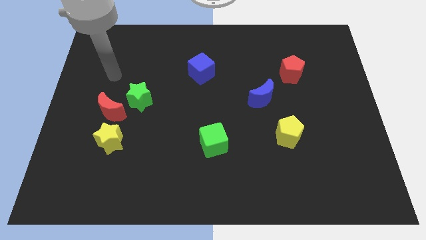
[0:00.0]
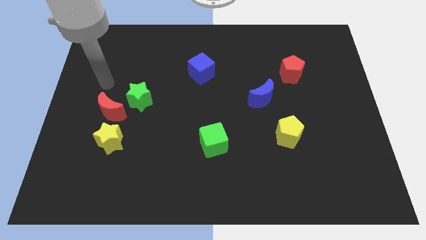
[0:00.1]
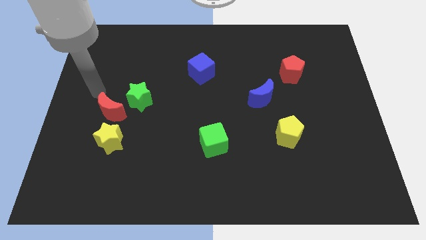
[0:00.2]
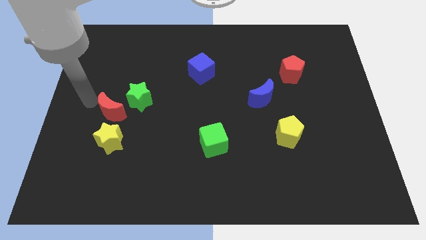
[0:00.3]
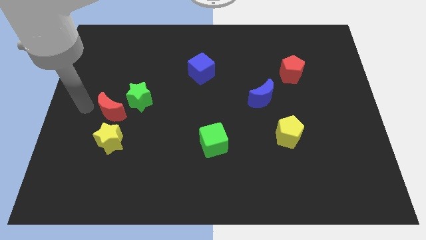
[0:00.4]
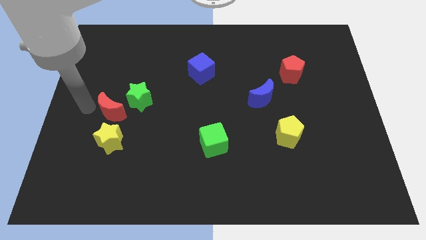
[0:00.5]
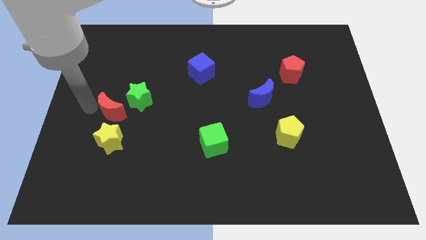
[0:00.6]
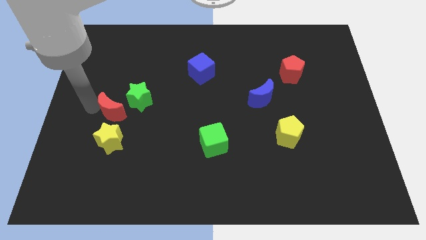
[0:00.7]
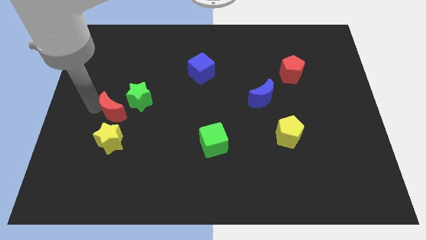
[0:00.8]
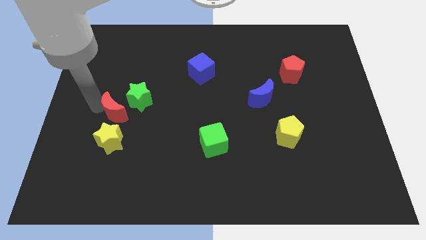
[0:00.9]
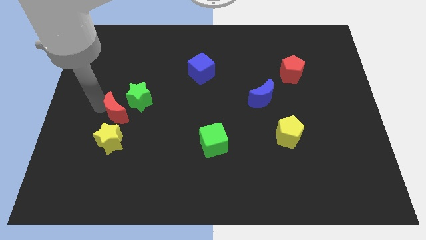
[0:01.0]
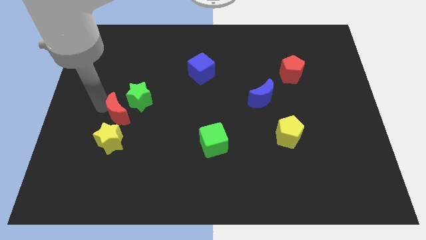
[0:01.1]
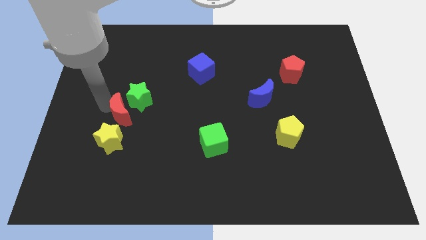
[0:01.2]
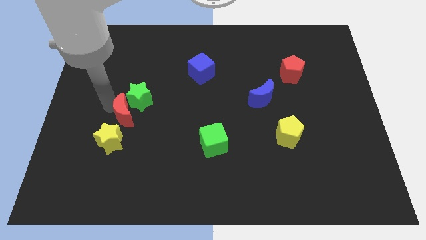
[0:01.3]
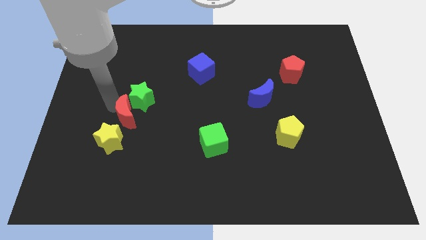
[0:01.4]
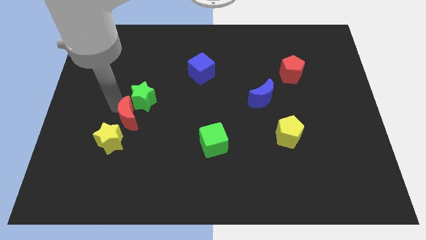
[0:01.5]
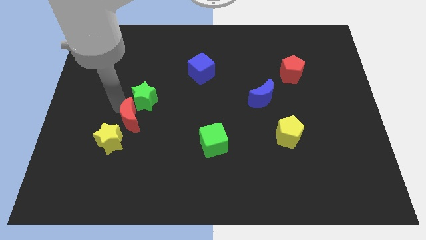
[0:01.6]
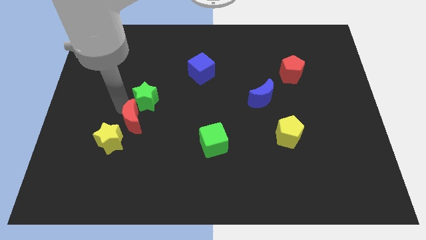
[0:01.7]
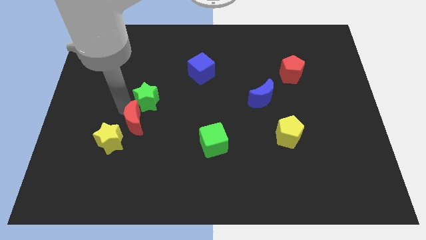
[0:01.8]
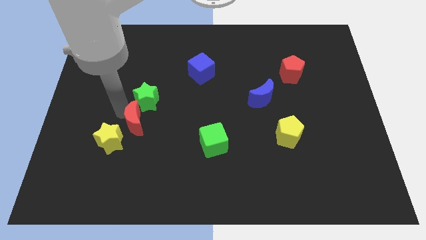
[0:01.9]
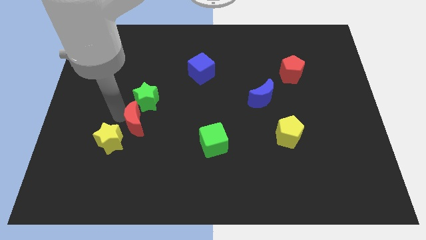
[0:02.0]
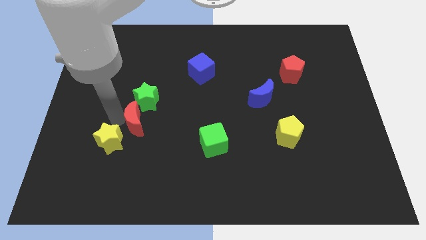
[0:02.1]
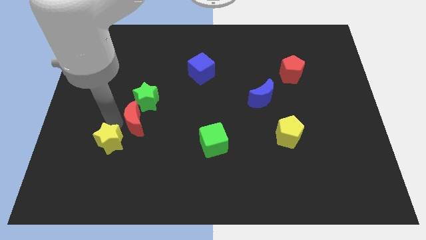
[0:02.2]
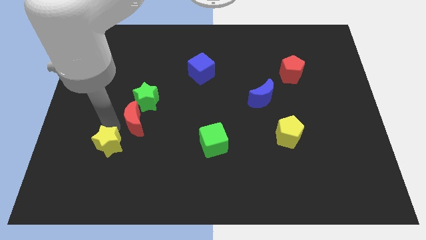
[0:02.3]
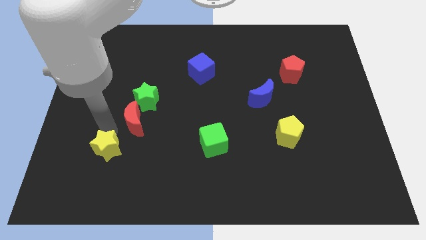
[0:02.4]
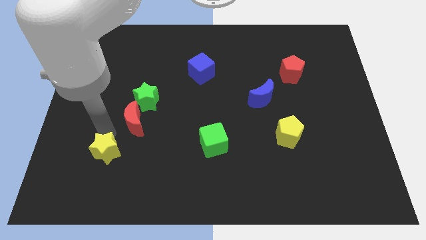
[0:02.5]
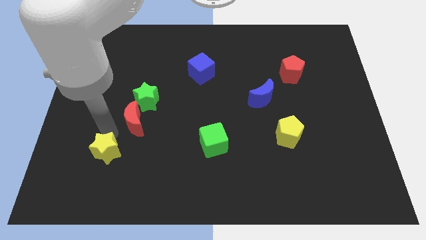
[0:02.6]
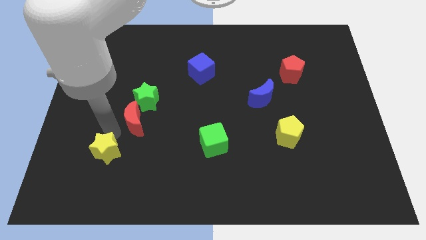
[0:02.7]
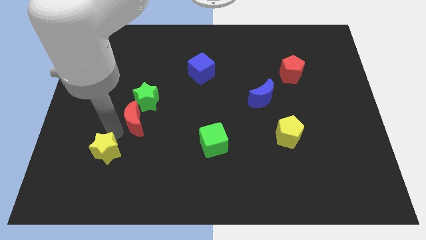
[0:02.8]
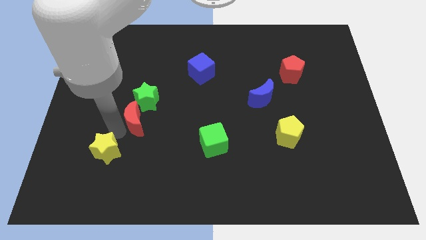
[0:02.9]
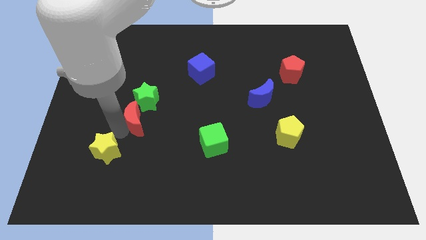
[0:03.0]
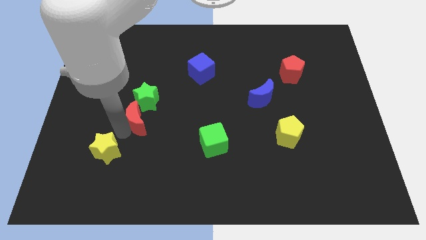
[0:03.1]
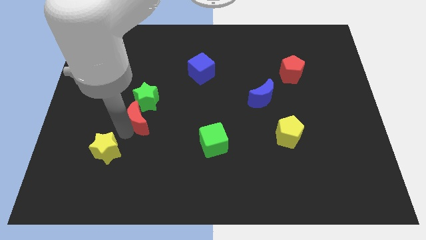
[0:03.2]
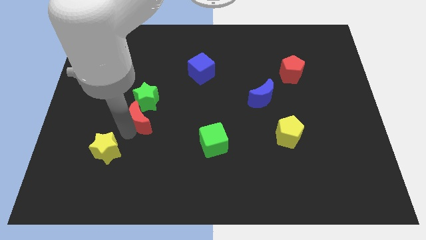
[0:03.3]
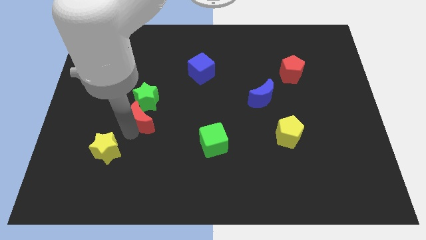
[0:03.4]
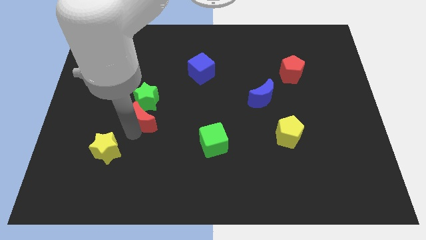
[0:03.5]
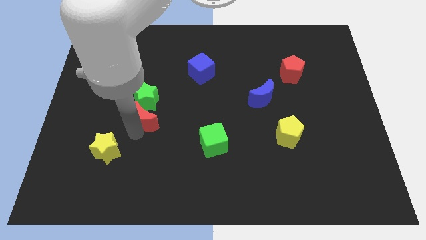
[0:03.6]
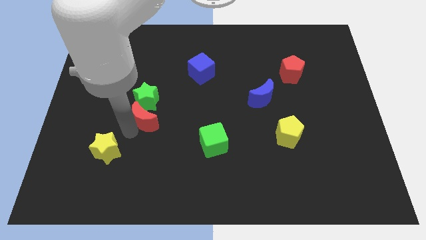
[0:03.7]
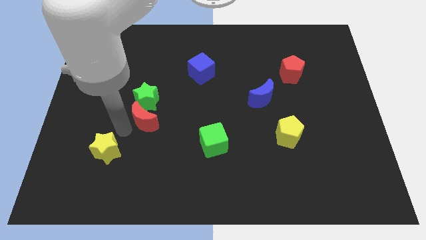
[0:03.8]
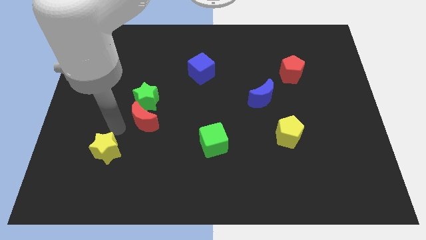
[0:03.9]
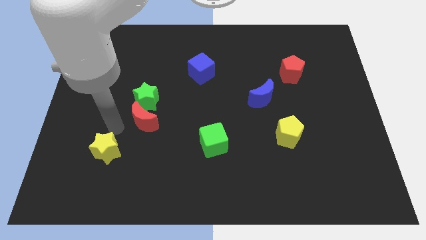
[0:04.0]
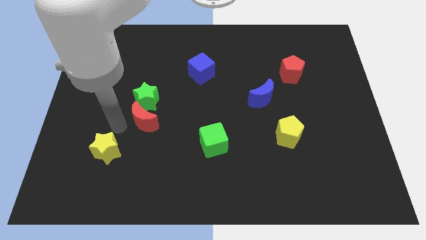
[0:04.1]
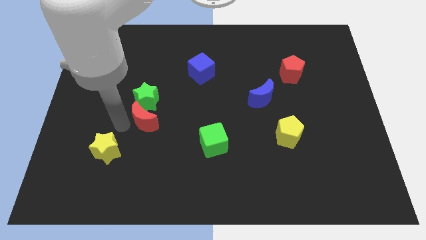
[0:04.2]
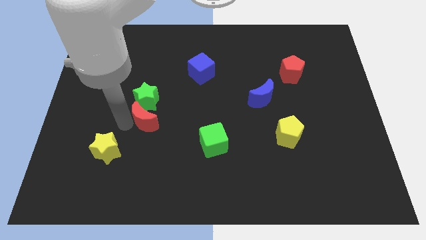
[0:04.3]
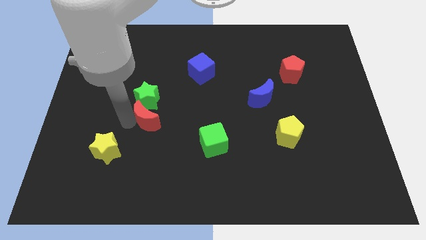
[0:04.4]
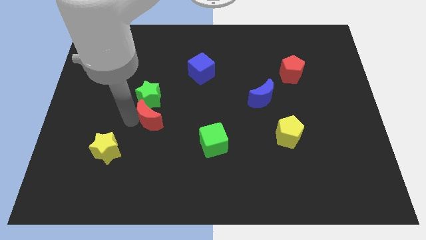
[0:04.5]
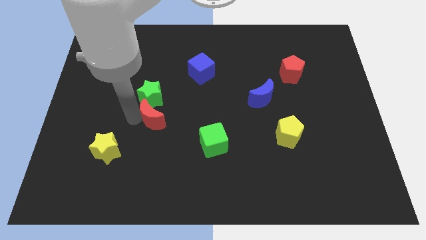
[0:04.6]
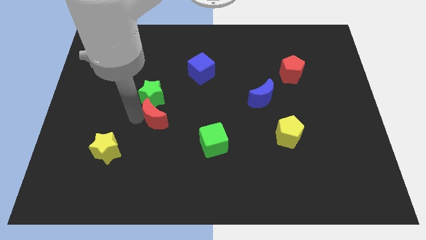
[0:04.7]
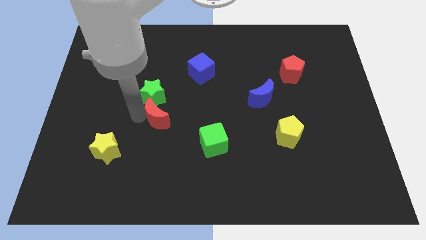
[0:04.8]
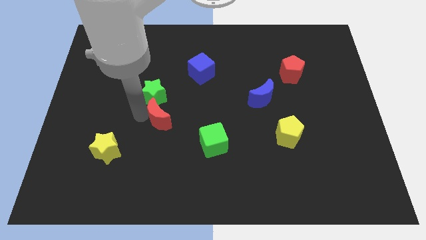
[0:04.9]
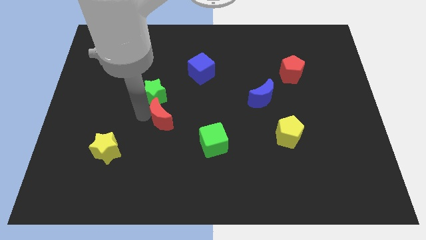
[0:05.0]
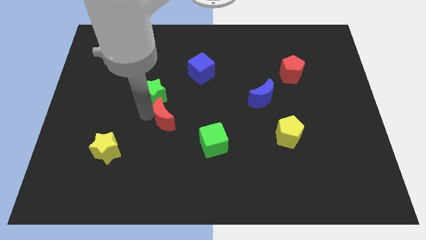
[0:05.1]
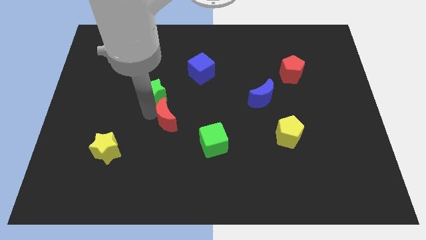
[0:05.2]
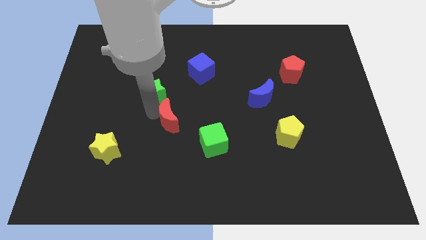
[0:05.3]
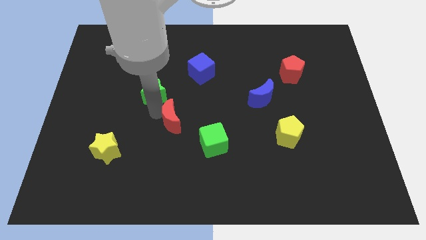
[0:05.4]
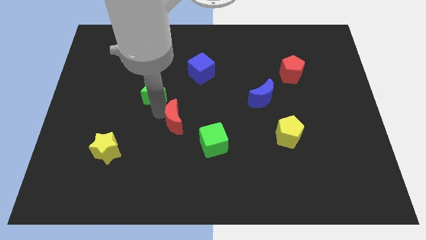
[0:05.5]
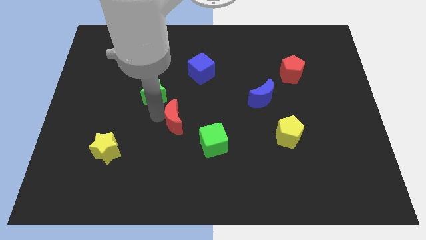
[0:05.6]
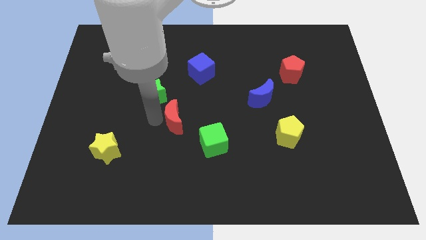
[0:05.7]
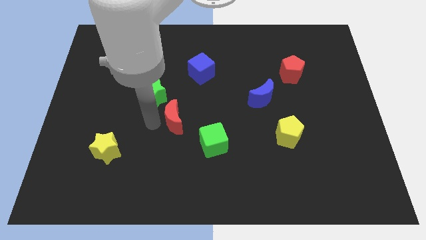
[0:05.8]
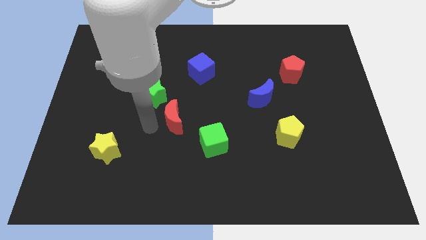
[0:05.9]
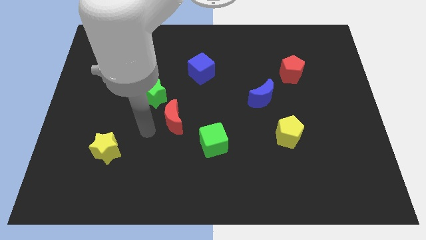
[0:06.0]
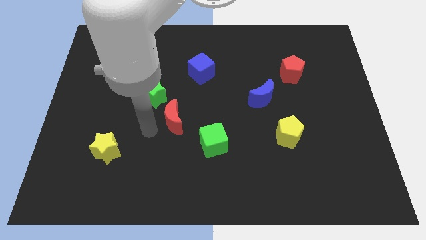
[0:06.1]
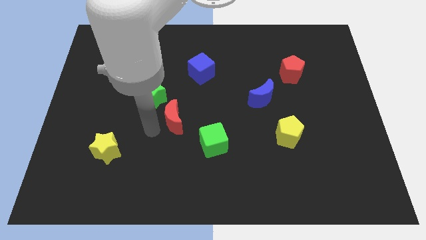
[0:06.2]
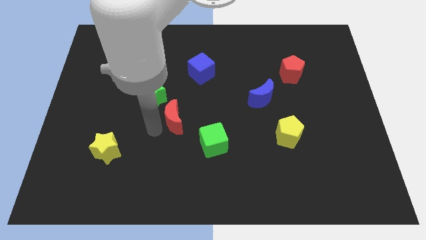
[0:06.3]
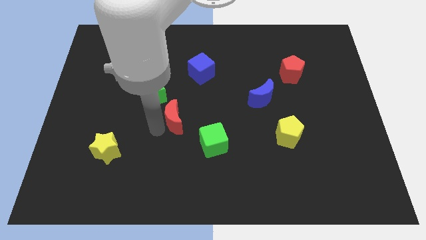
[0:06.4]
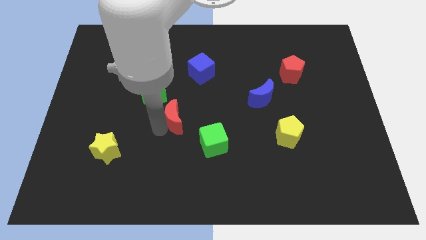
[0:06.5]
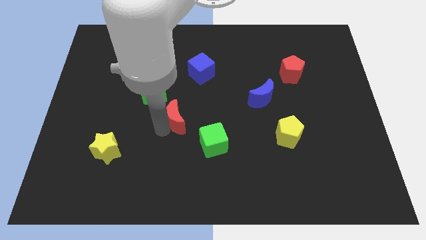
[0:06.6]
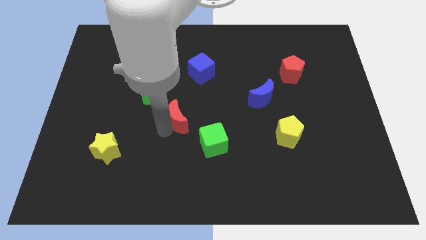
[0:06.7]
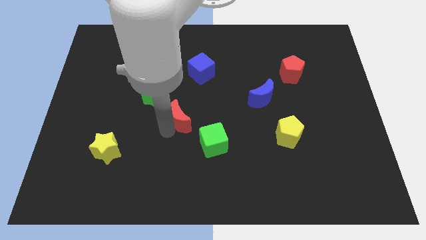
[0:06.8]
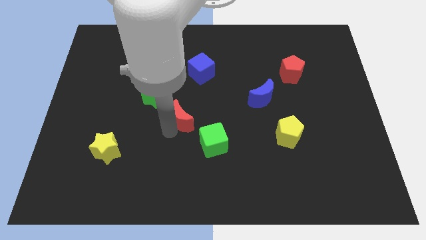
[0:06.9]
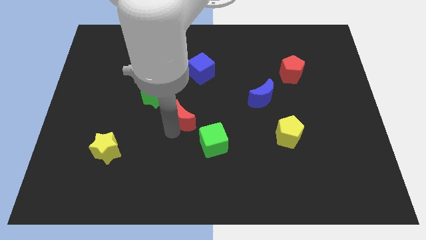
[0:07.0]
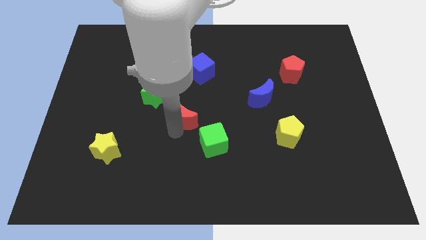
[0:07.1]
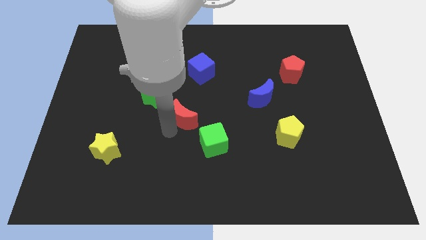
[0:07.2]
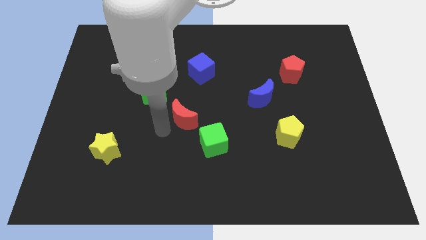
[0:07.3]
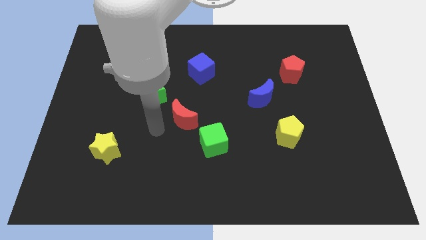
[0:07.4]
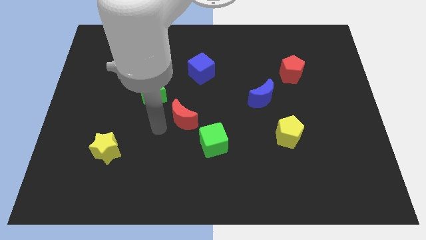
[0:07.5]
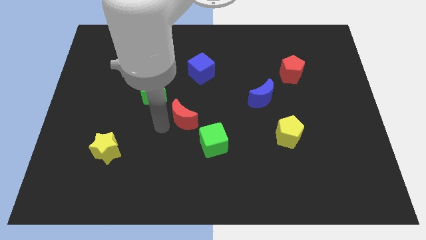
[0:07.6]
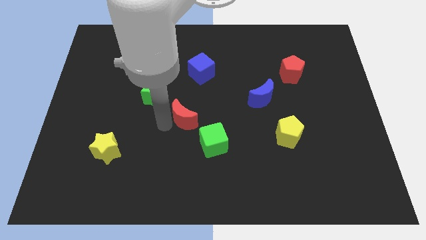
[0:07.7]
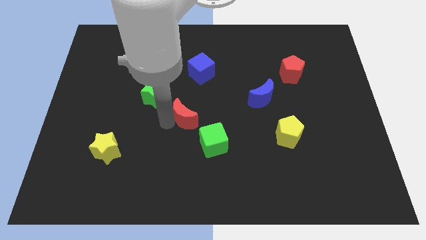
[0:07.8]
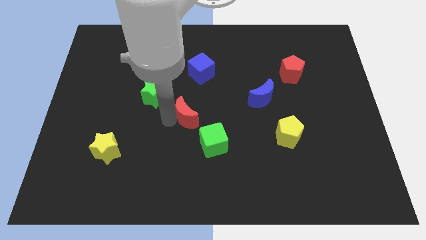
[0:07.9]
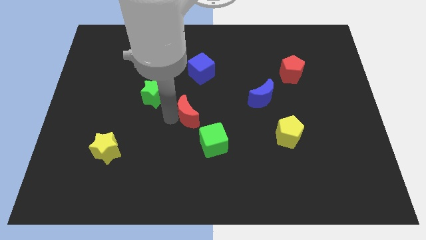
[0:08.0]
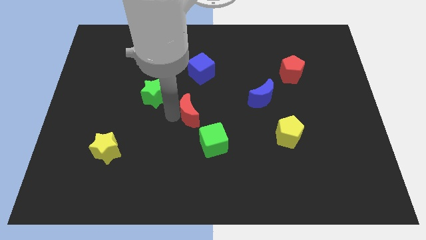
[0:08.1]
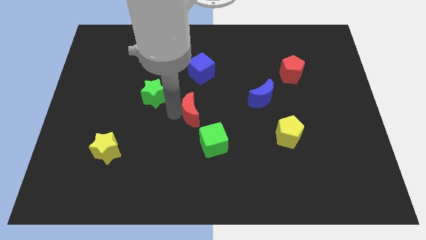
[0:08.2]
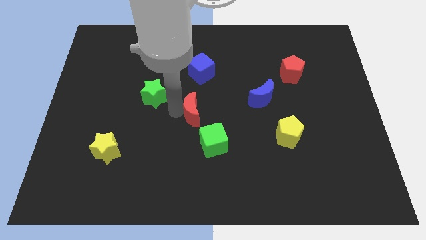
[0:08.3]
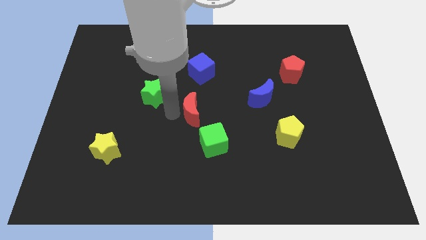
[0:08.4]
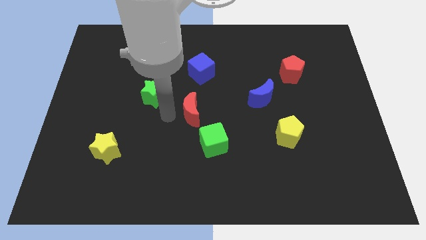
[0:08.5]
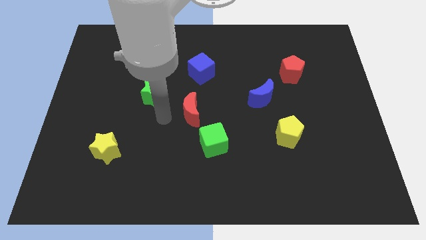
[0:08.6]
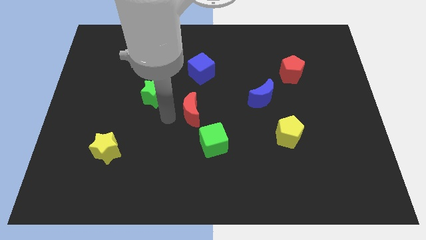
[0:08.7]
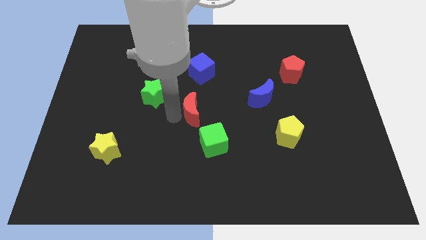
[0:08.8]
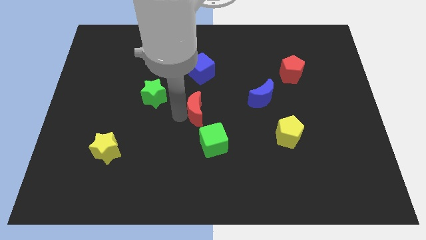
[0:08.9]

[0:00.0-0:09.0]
move the red moon to the right
